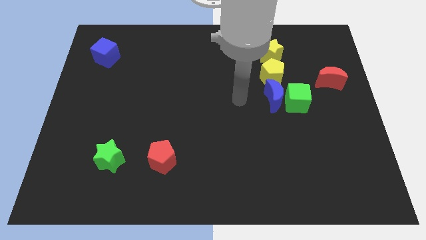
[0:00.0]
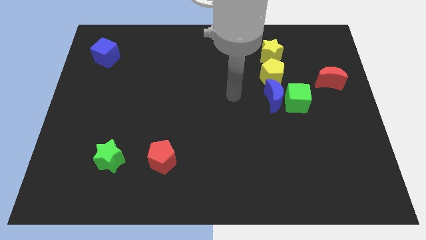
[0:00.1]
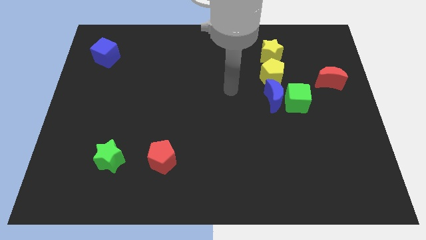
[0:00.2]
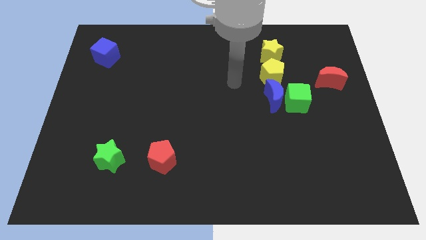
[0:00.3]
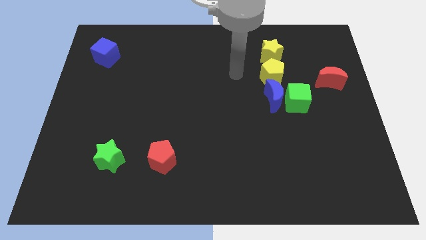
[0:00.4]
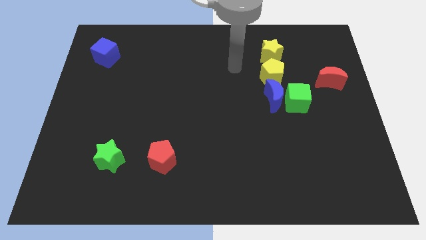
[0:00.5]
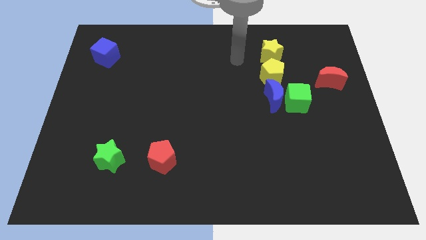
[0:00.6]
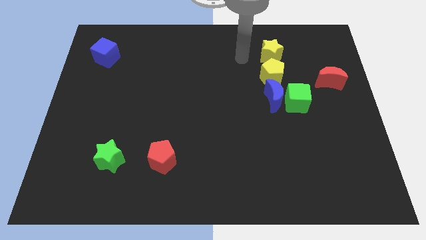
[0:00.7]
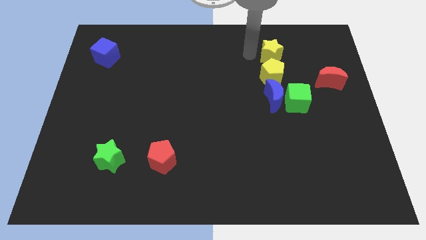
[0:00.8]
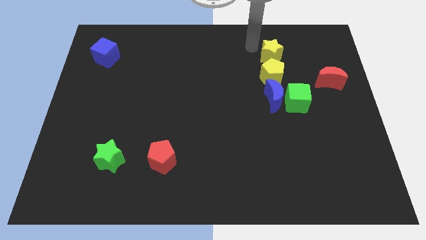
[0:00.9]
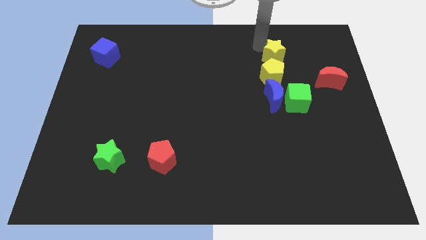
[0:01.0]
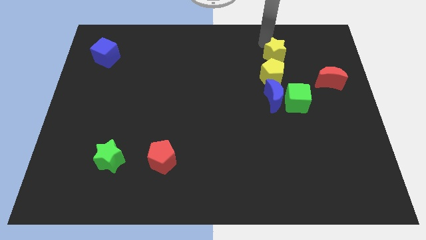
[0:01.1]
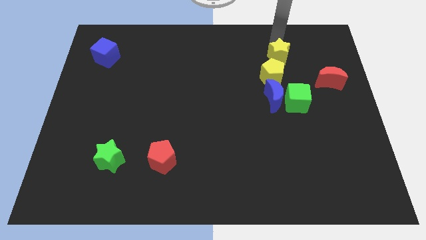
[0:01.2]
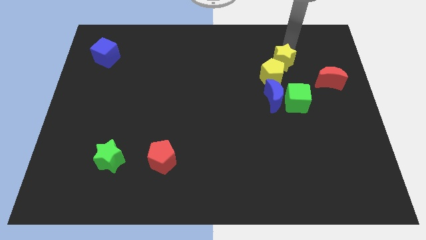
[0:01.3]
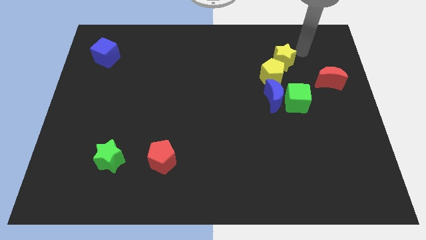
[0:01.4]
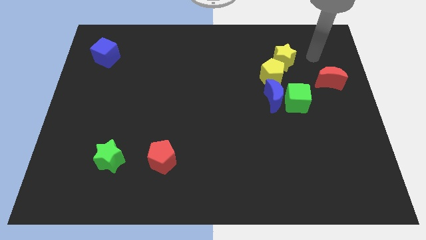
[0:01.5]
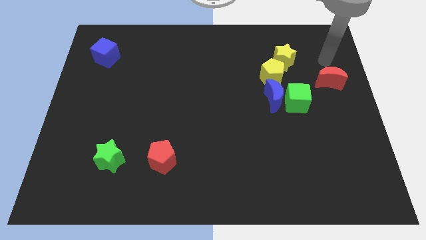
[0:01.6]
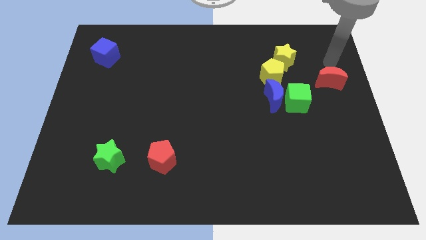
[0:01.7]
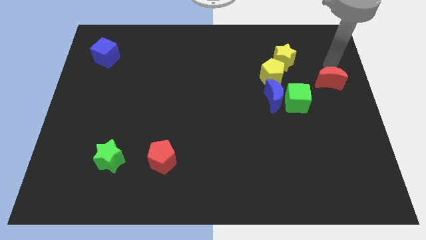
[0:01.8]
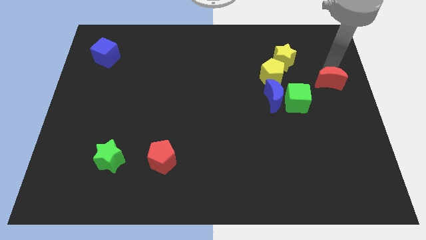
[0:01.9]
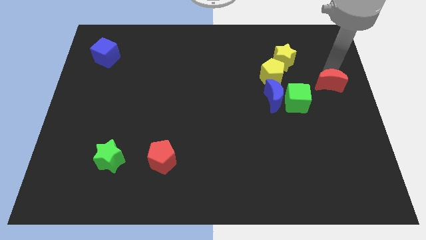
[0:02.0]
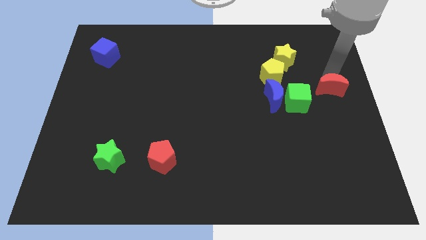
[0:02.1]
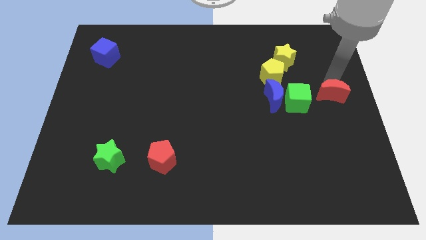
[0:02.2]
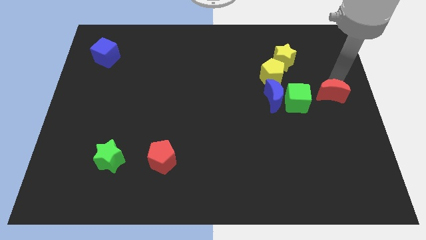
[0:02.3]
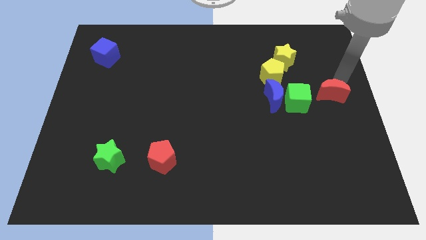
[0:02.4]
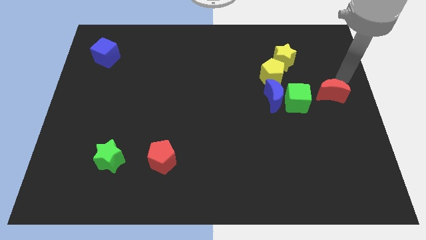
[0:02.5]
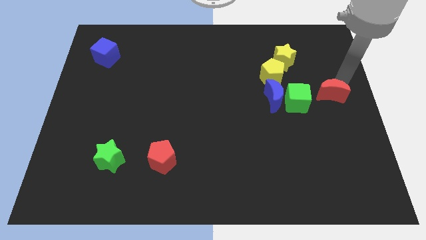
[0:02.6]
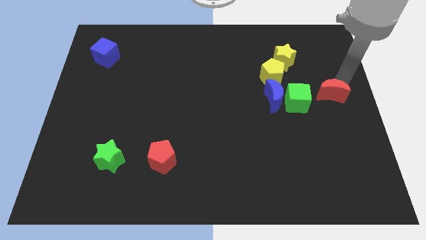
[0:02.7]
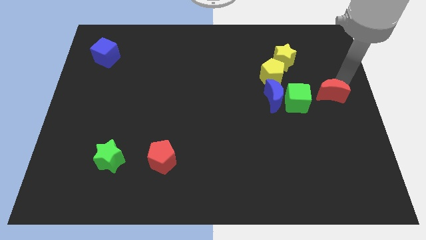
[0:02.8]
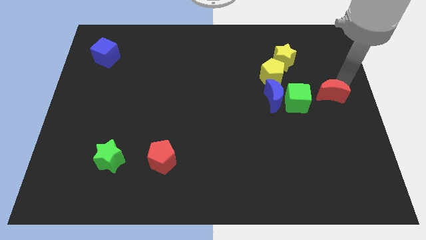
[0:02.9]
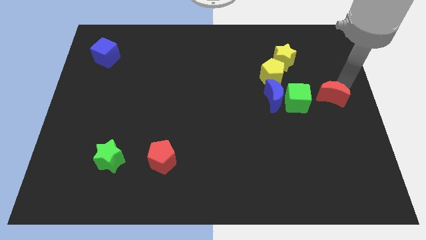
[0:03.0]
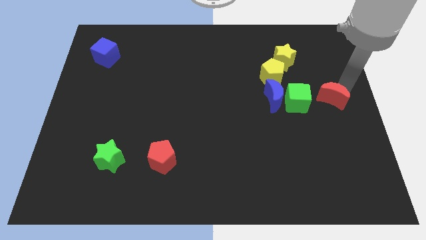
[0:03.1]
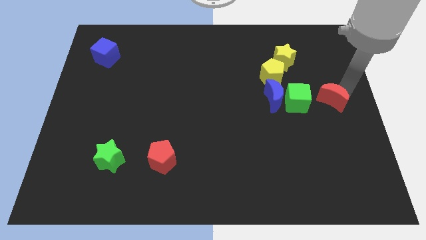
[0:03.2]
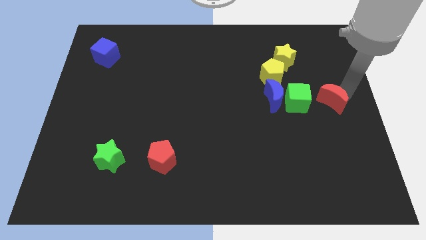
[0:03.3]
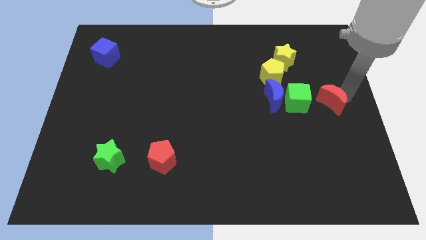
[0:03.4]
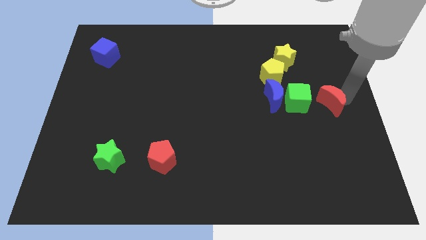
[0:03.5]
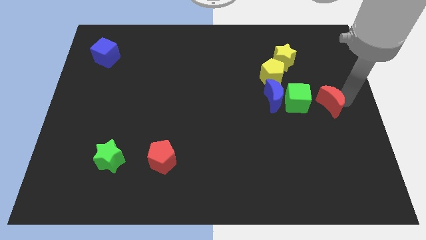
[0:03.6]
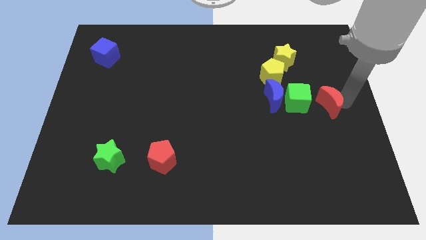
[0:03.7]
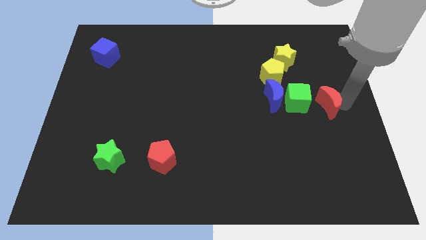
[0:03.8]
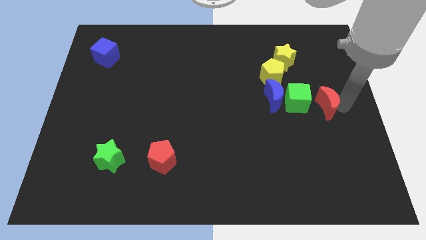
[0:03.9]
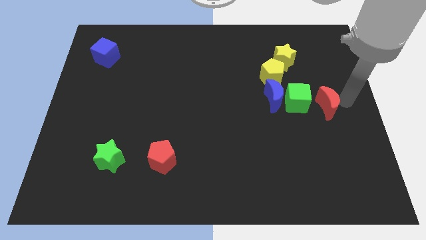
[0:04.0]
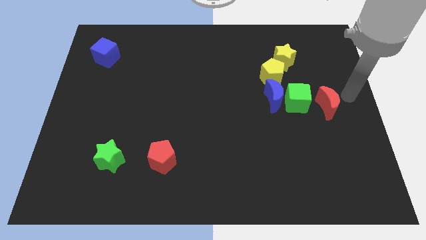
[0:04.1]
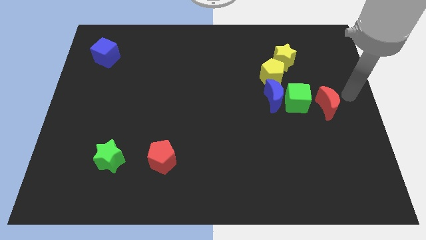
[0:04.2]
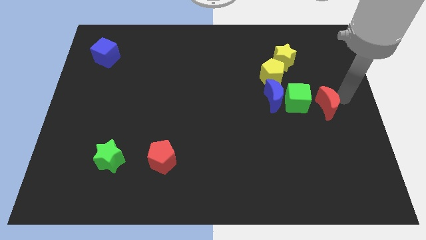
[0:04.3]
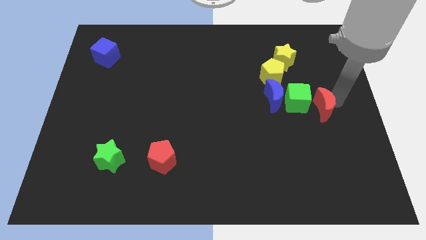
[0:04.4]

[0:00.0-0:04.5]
push the red moon diagonally down and left a little bit

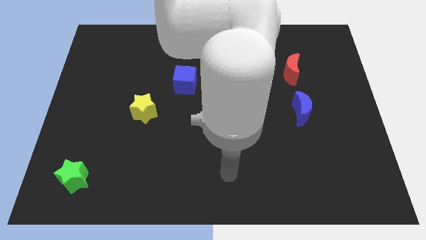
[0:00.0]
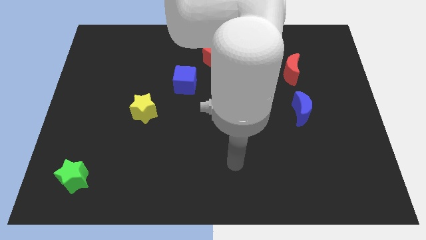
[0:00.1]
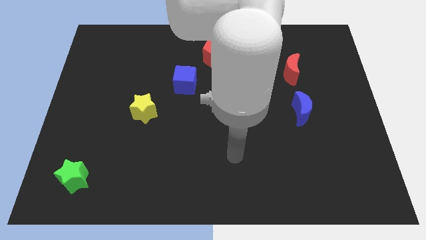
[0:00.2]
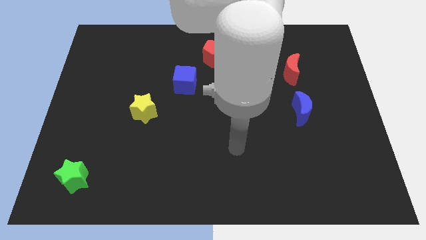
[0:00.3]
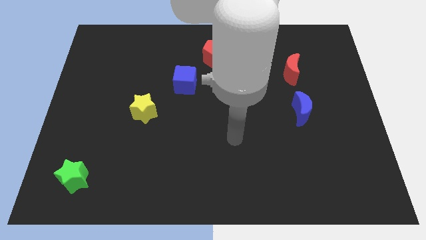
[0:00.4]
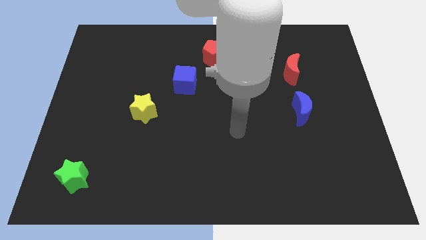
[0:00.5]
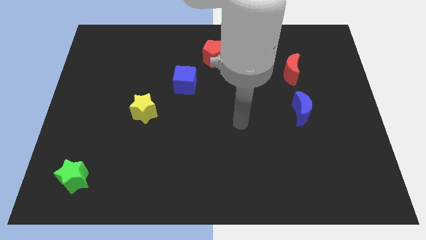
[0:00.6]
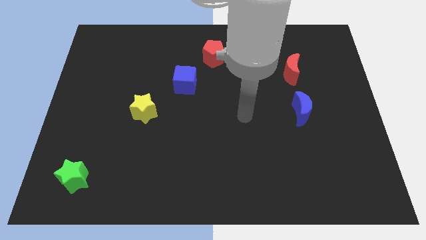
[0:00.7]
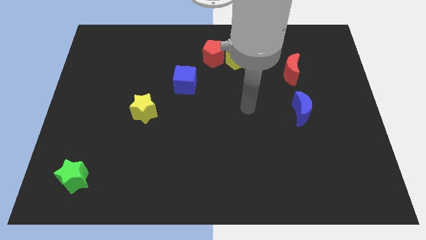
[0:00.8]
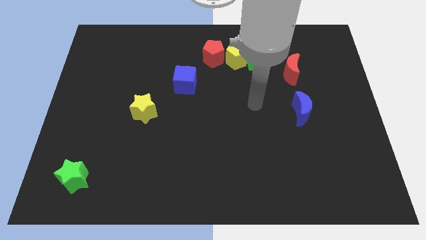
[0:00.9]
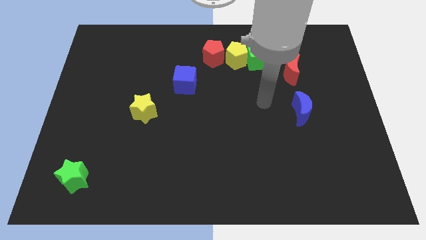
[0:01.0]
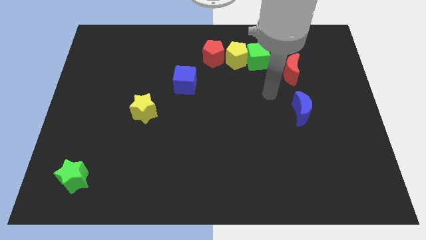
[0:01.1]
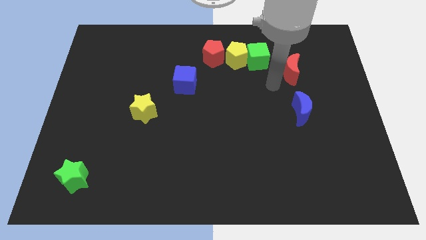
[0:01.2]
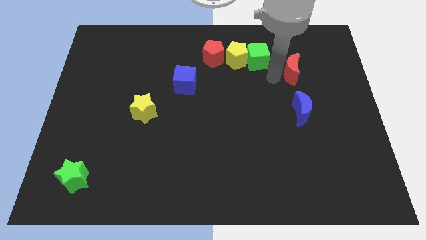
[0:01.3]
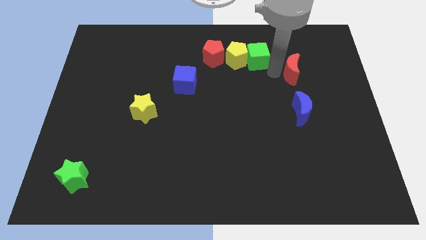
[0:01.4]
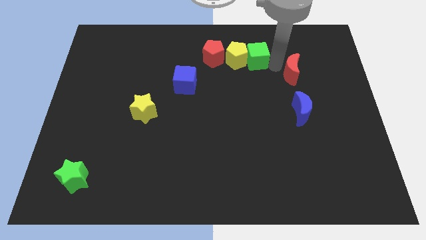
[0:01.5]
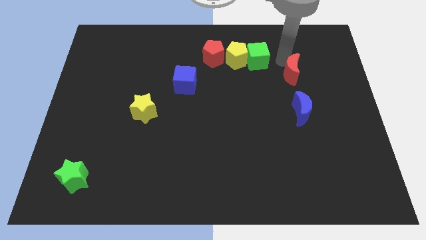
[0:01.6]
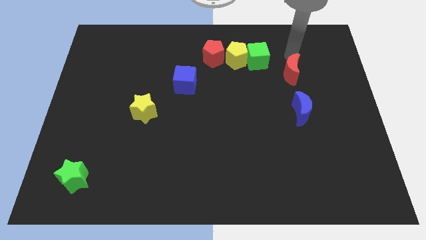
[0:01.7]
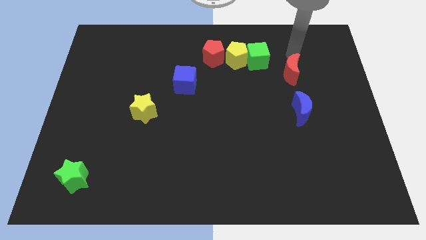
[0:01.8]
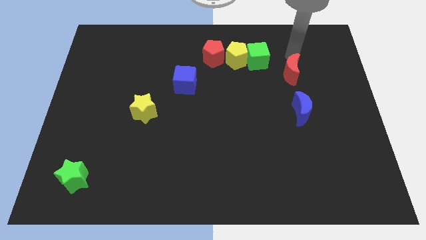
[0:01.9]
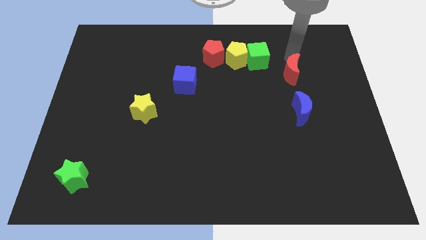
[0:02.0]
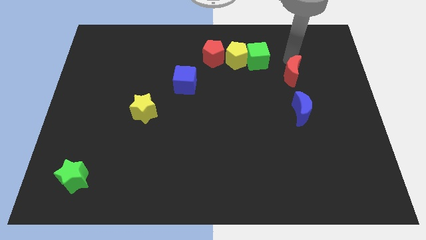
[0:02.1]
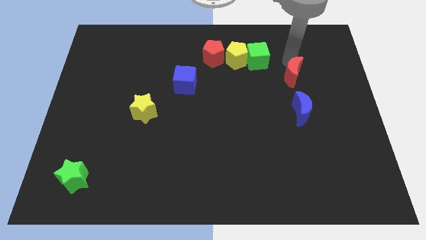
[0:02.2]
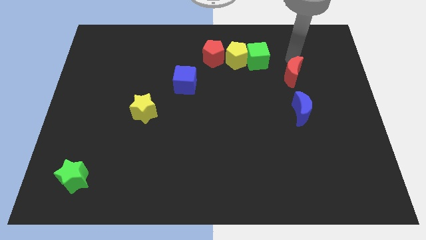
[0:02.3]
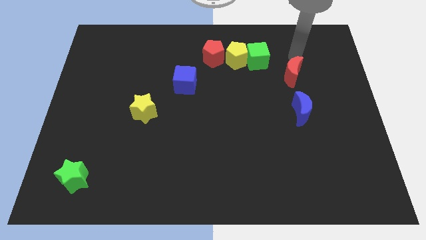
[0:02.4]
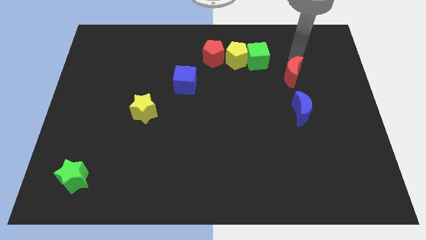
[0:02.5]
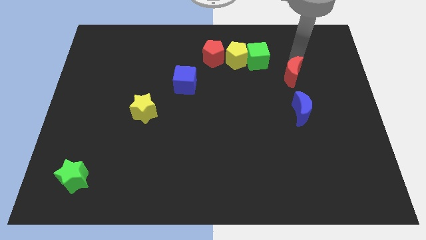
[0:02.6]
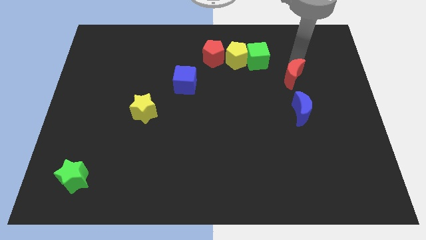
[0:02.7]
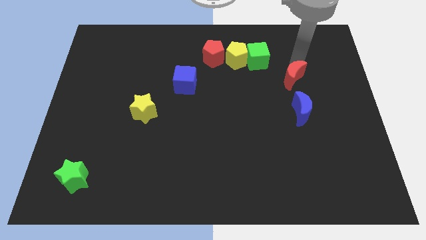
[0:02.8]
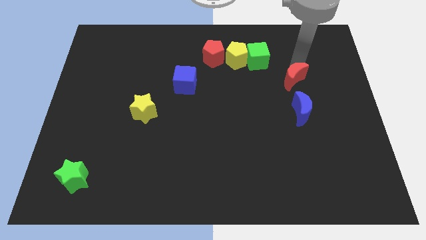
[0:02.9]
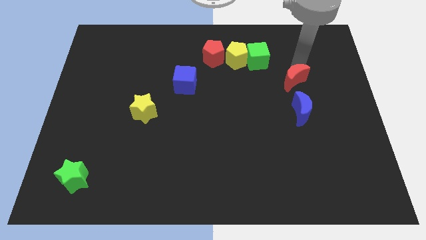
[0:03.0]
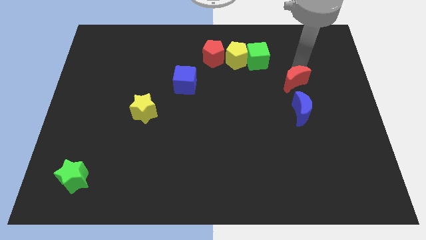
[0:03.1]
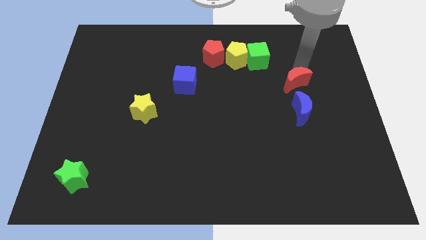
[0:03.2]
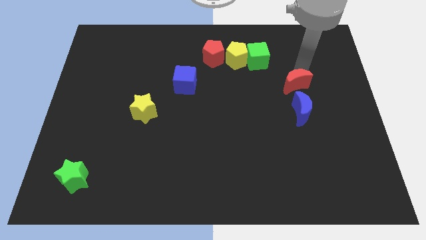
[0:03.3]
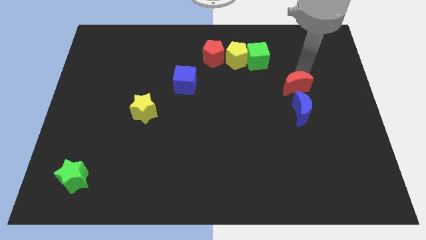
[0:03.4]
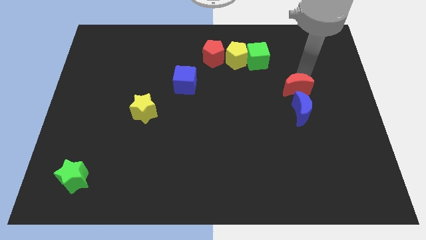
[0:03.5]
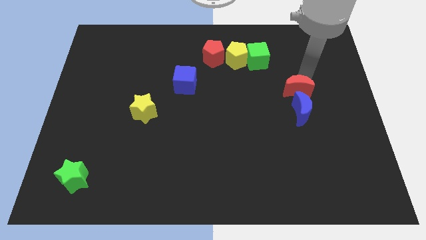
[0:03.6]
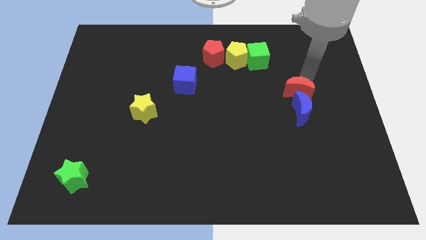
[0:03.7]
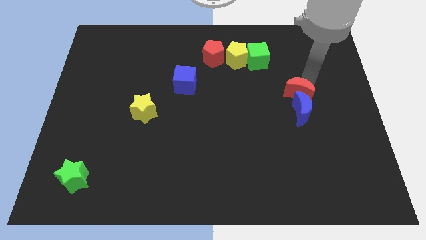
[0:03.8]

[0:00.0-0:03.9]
move the red moon downwards slightly
